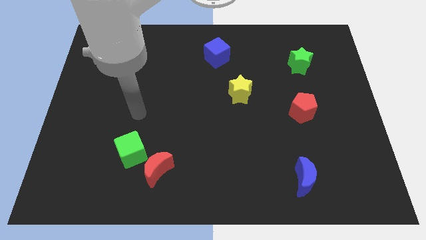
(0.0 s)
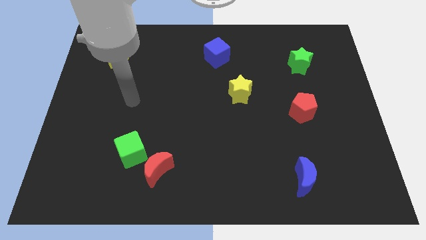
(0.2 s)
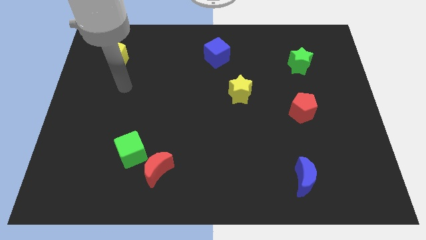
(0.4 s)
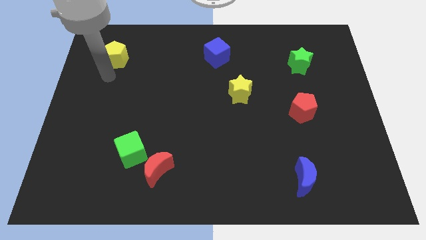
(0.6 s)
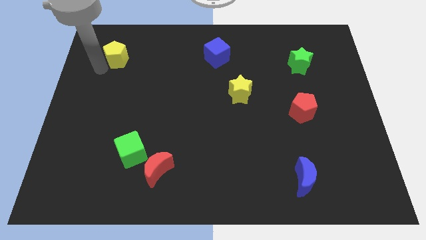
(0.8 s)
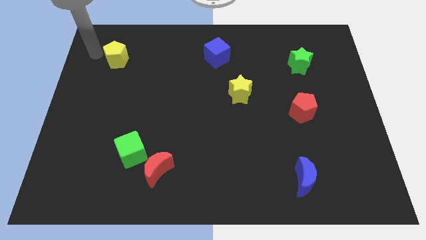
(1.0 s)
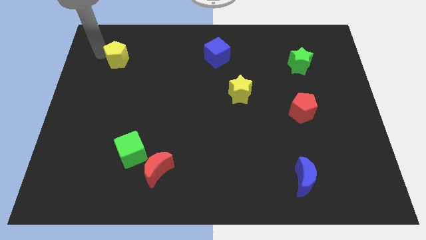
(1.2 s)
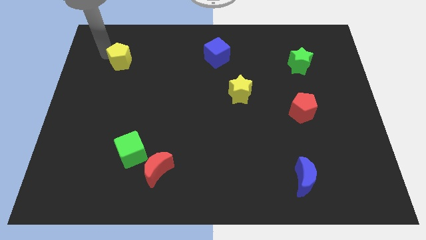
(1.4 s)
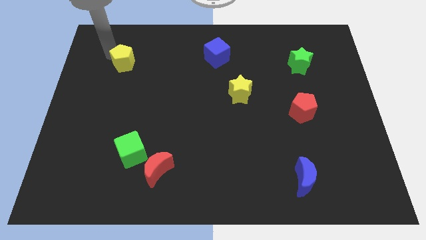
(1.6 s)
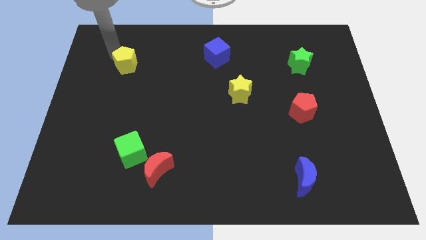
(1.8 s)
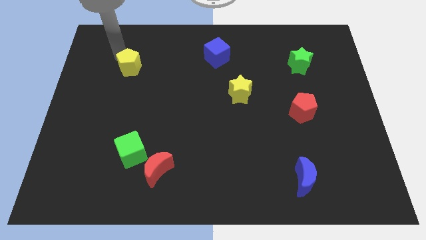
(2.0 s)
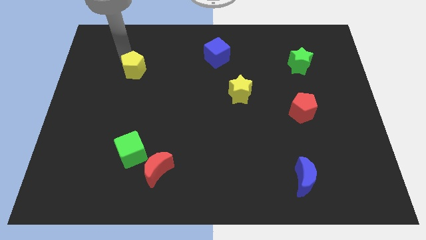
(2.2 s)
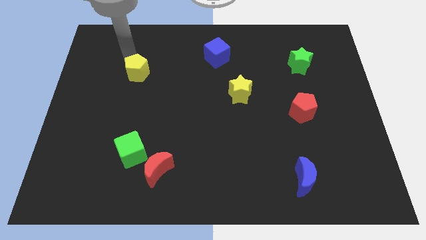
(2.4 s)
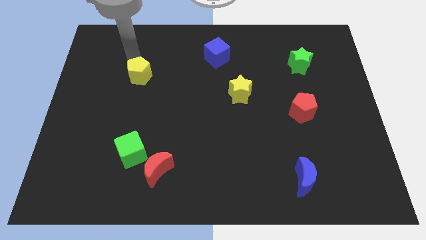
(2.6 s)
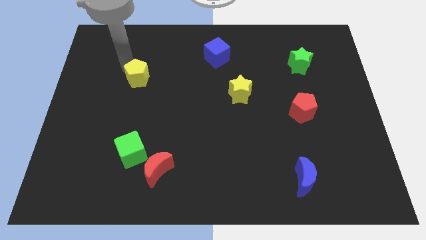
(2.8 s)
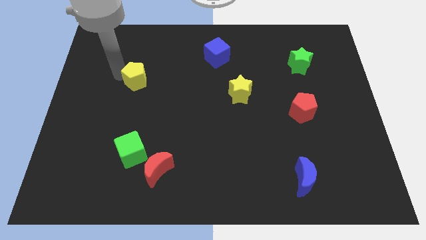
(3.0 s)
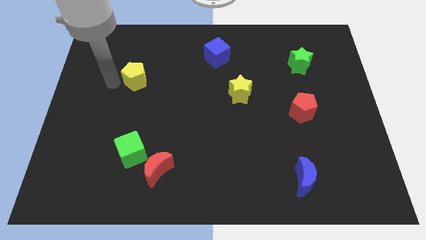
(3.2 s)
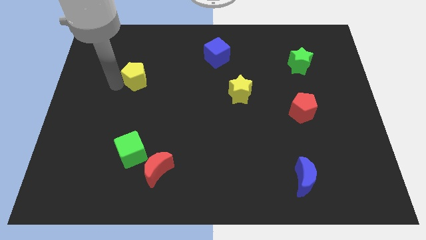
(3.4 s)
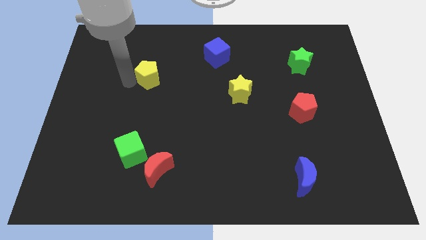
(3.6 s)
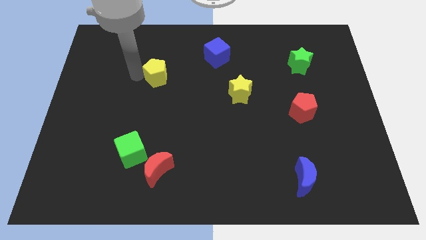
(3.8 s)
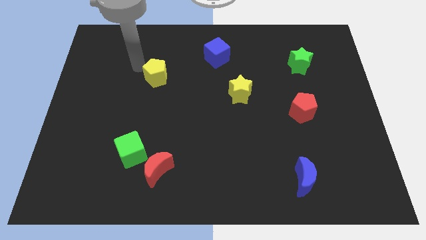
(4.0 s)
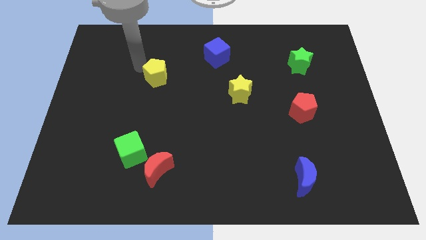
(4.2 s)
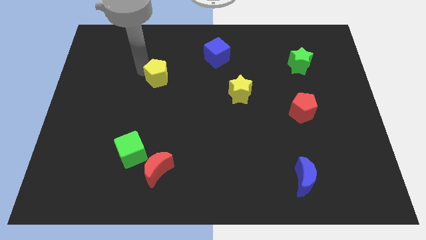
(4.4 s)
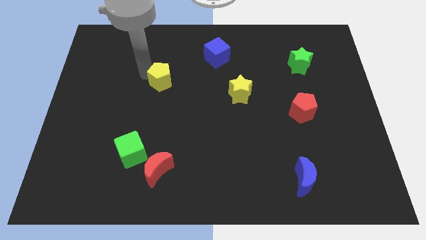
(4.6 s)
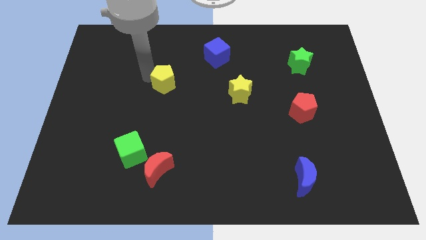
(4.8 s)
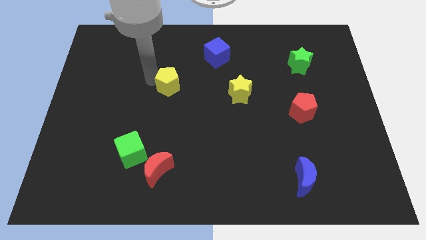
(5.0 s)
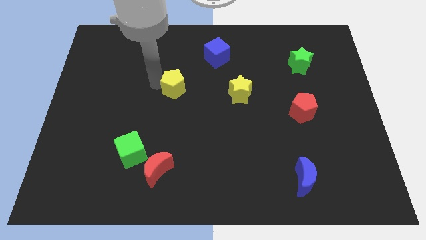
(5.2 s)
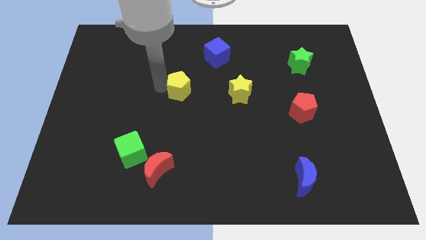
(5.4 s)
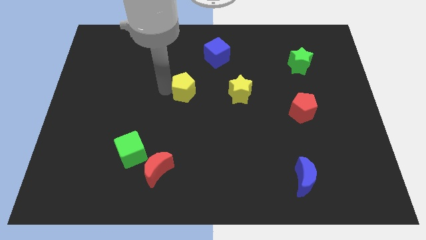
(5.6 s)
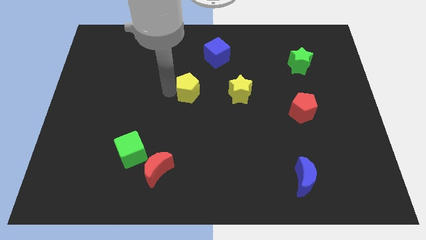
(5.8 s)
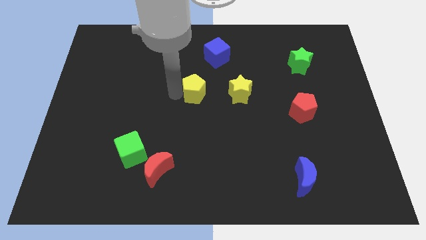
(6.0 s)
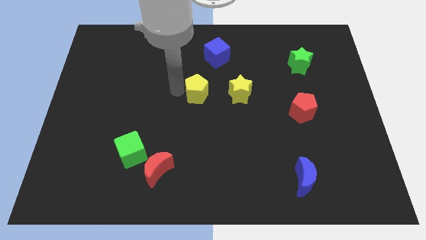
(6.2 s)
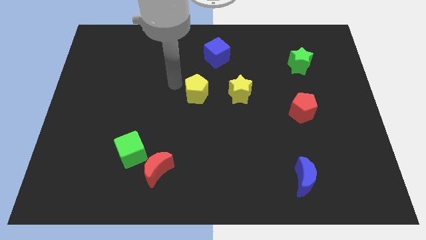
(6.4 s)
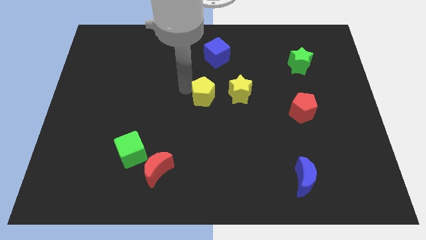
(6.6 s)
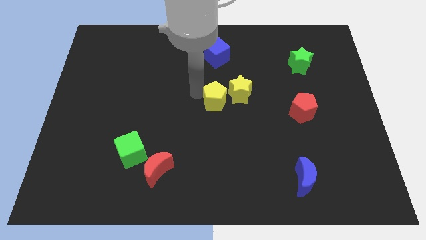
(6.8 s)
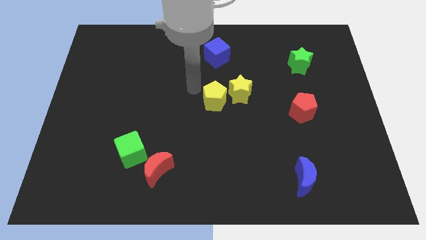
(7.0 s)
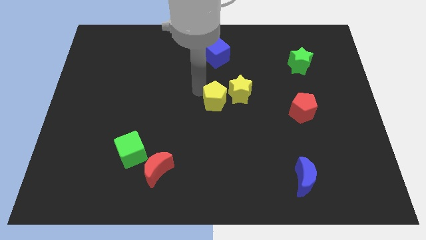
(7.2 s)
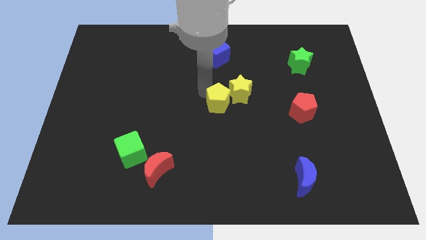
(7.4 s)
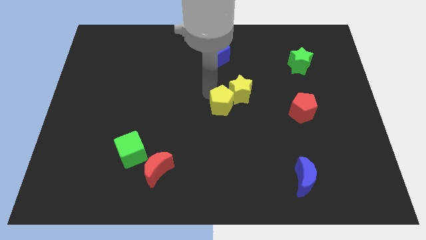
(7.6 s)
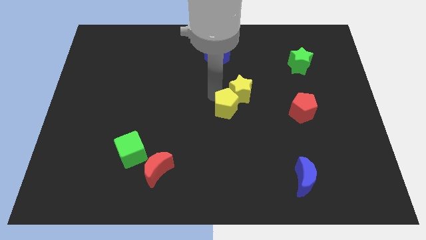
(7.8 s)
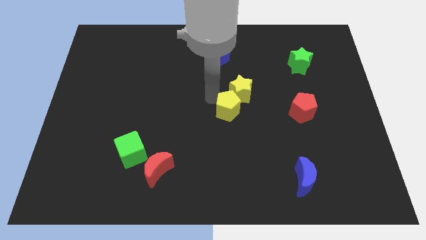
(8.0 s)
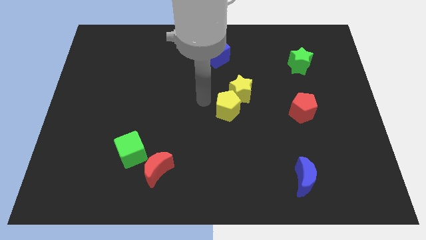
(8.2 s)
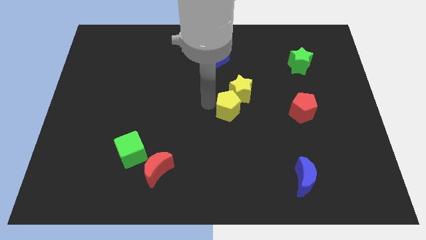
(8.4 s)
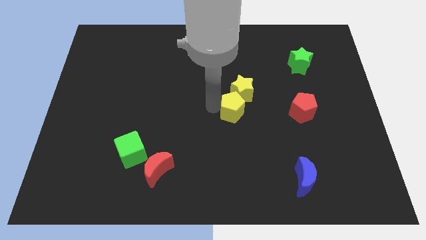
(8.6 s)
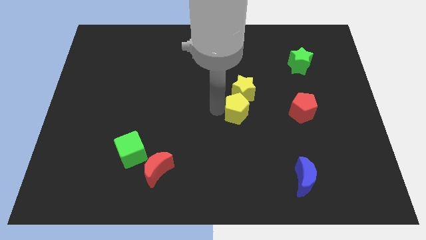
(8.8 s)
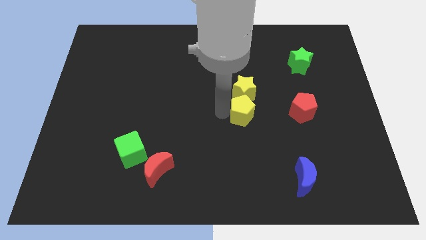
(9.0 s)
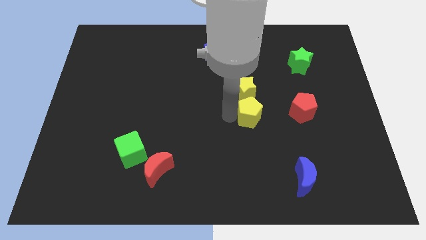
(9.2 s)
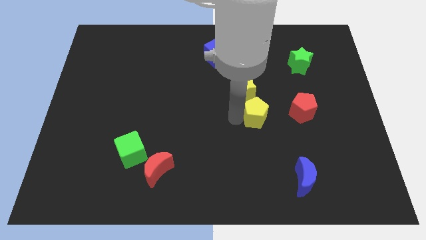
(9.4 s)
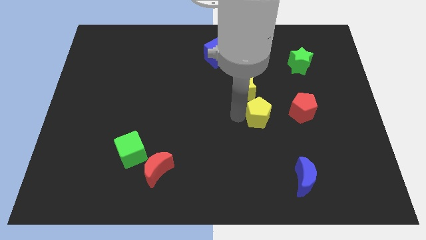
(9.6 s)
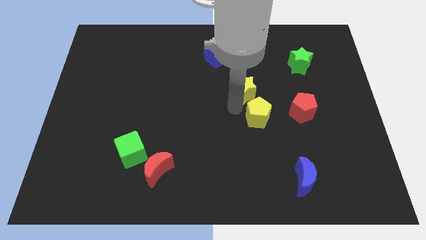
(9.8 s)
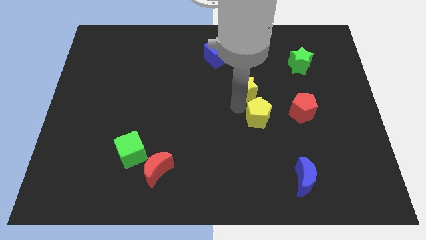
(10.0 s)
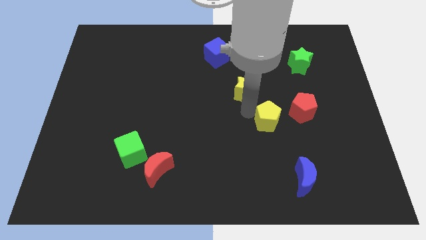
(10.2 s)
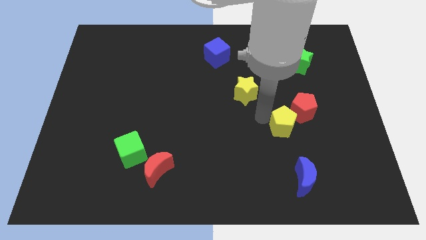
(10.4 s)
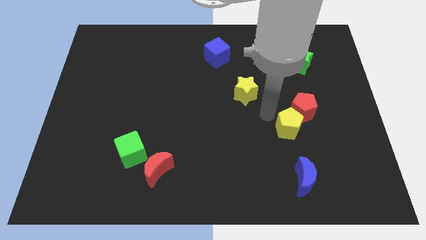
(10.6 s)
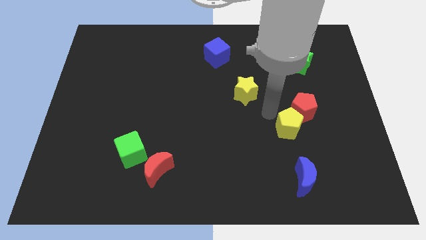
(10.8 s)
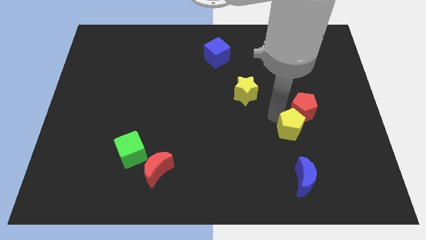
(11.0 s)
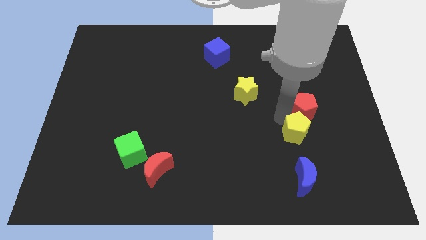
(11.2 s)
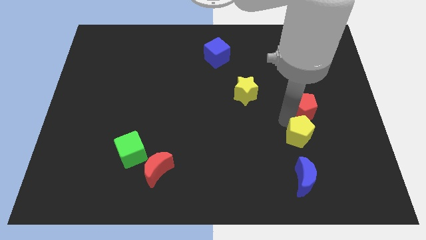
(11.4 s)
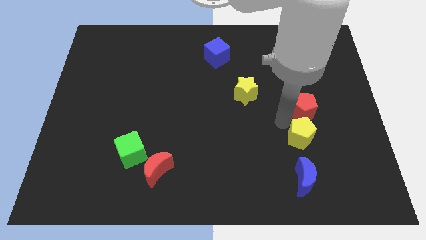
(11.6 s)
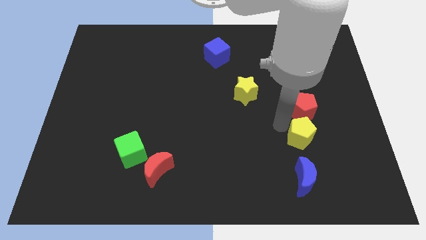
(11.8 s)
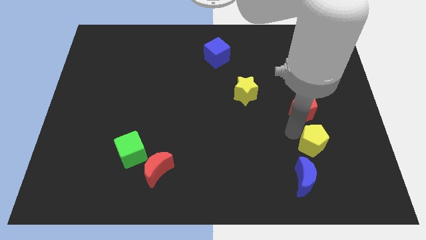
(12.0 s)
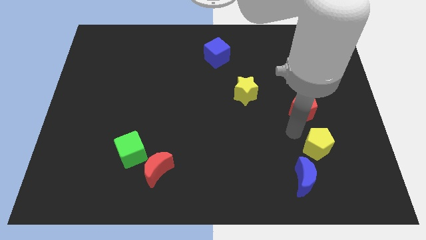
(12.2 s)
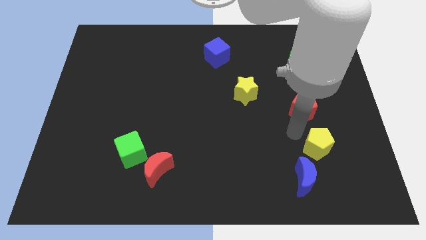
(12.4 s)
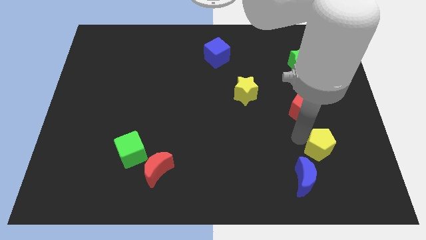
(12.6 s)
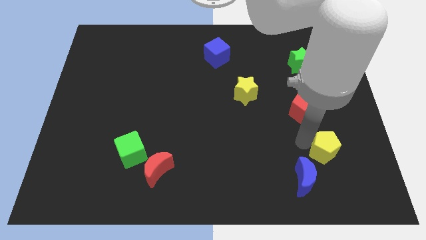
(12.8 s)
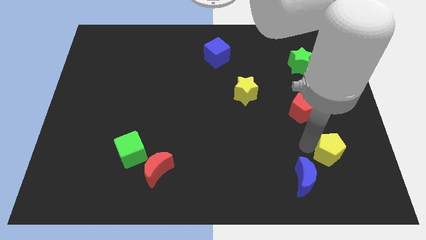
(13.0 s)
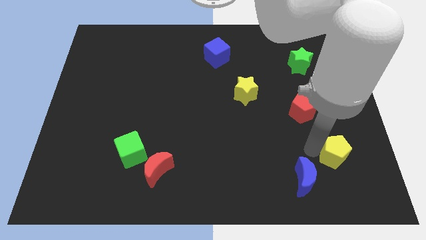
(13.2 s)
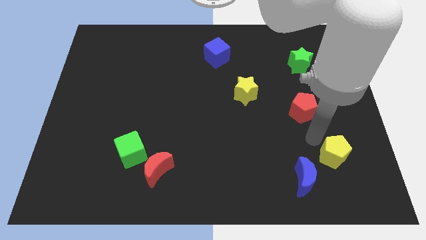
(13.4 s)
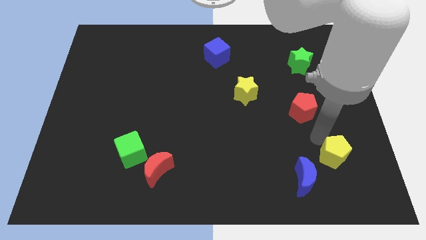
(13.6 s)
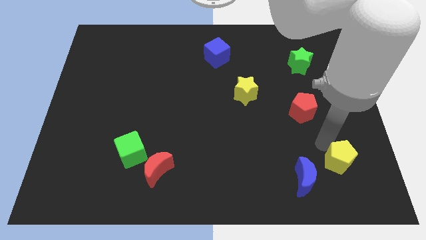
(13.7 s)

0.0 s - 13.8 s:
put the yellow pentagon right of the blue moon
